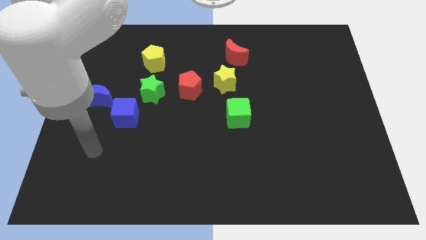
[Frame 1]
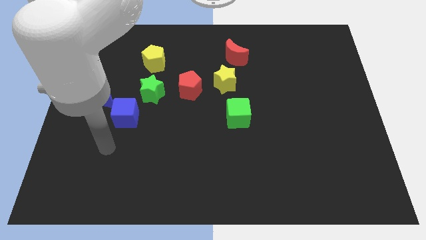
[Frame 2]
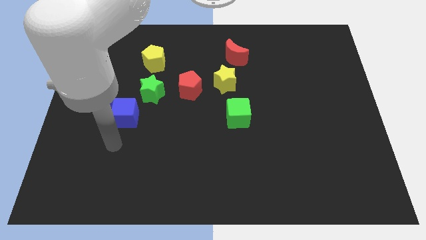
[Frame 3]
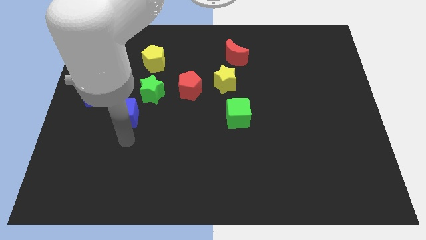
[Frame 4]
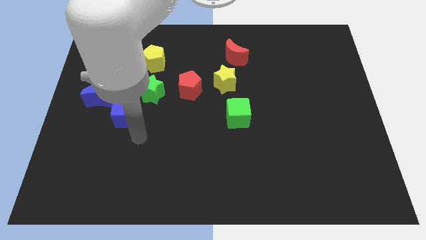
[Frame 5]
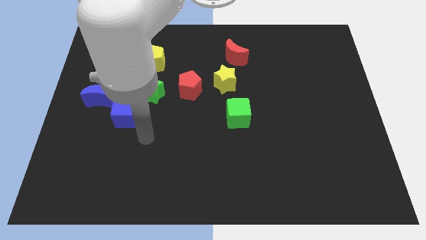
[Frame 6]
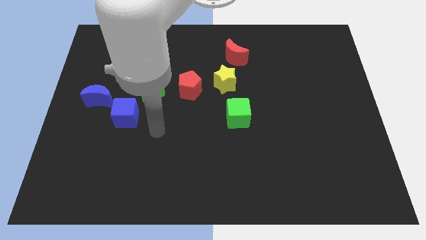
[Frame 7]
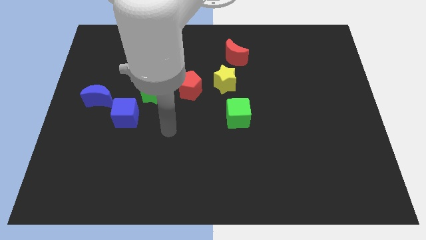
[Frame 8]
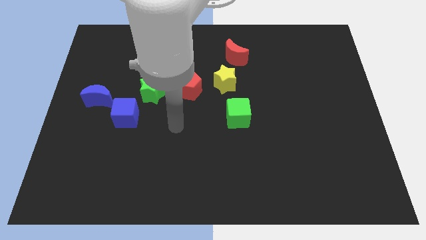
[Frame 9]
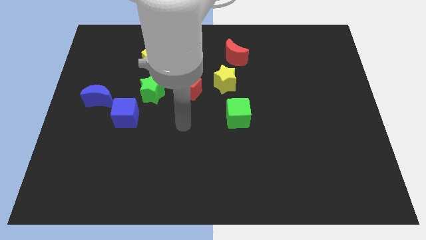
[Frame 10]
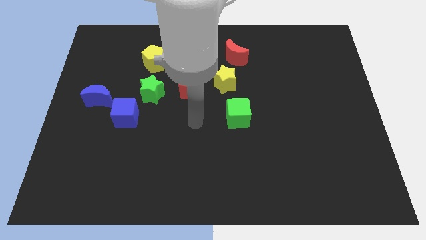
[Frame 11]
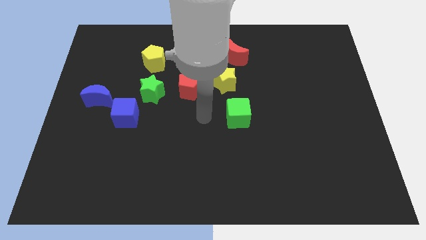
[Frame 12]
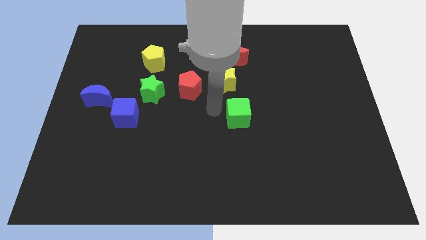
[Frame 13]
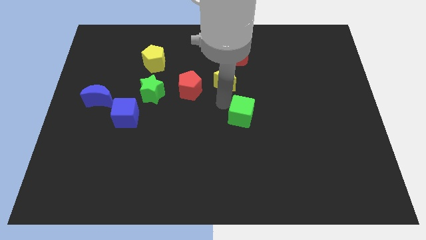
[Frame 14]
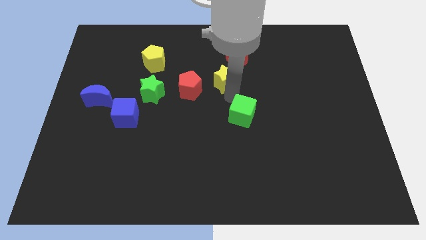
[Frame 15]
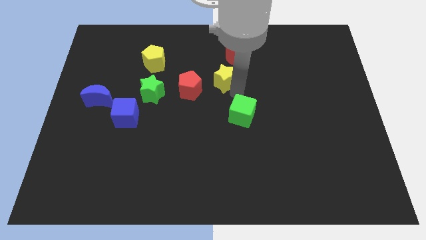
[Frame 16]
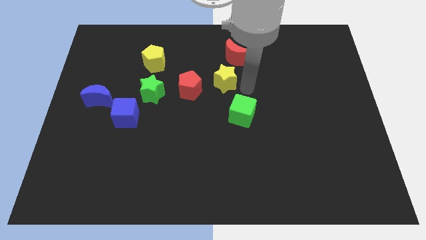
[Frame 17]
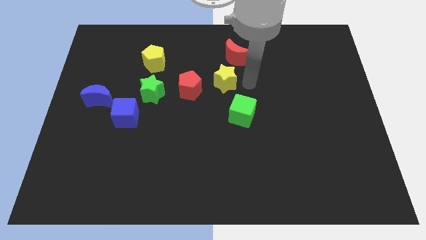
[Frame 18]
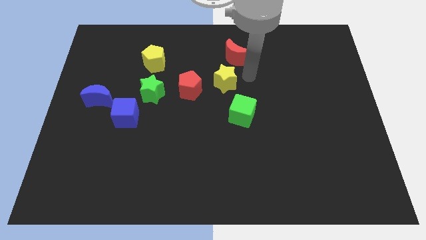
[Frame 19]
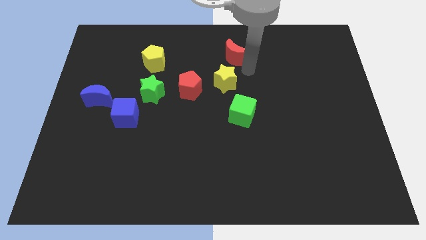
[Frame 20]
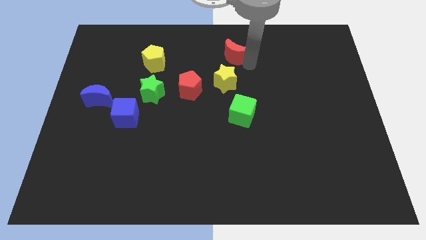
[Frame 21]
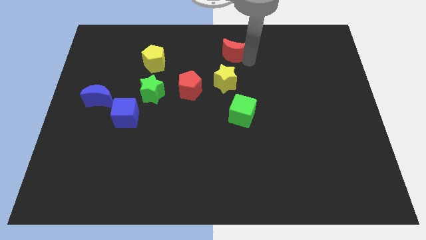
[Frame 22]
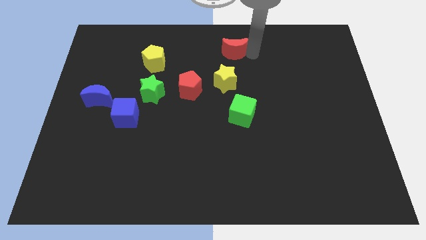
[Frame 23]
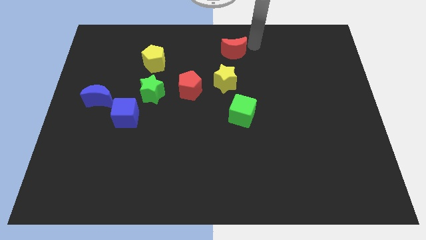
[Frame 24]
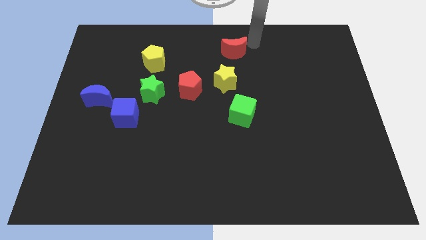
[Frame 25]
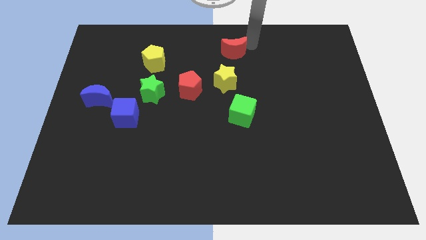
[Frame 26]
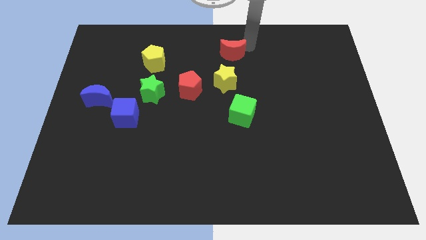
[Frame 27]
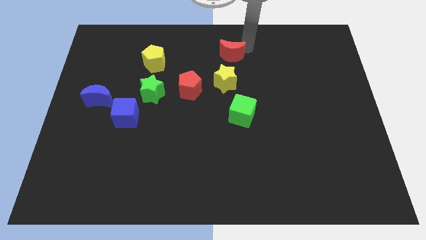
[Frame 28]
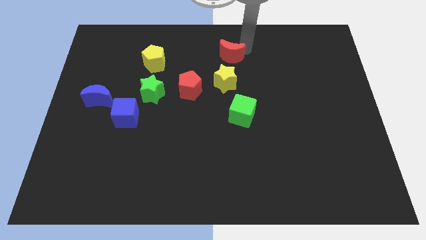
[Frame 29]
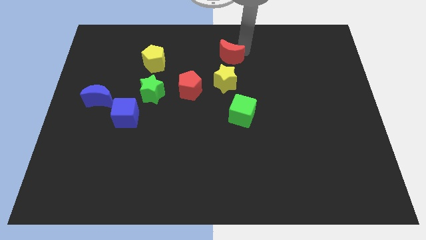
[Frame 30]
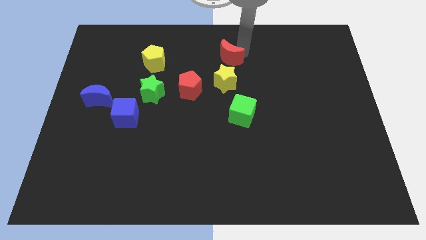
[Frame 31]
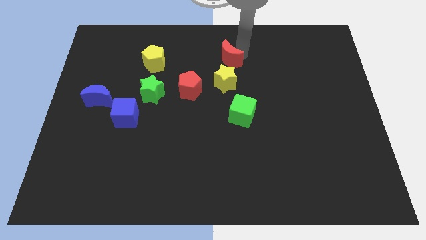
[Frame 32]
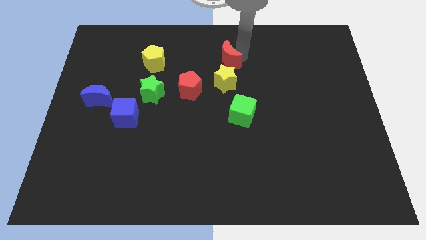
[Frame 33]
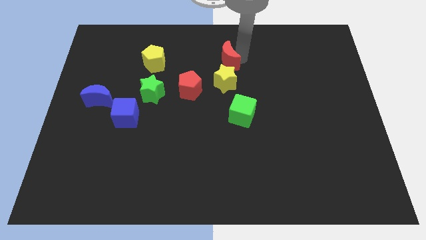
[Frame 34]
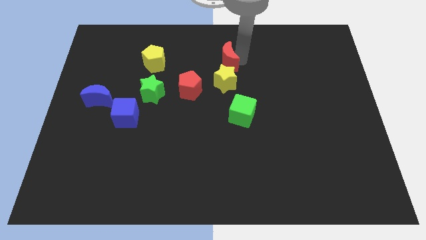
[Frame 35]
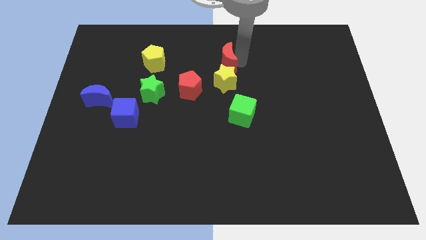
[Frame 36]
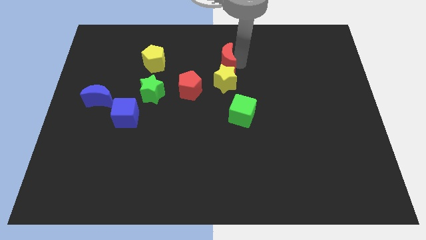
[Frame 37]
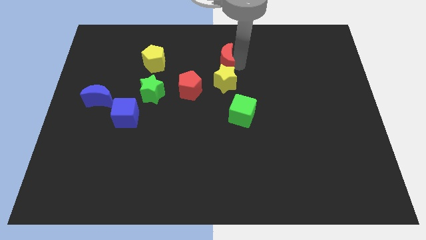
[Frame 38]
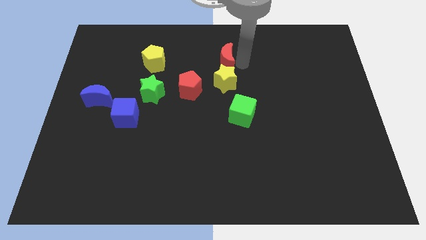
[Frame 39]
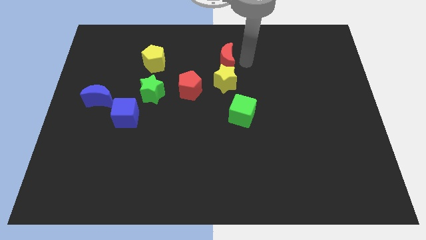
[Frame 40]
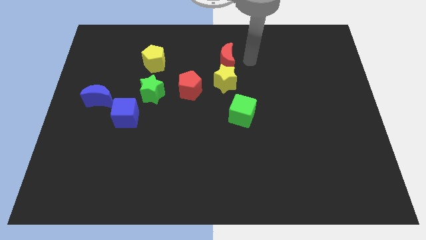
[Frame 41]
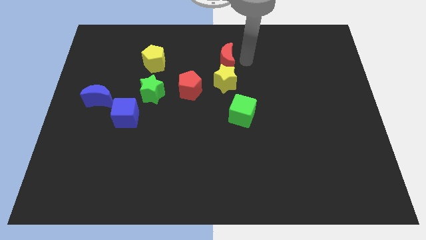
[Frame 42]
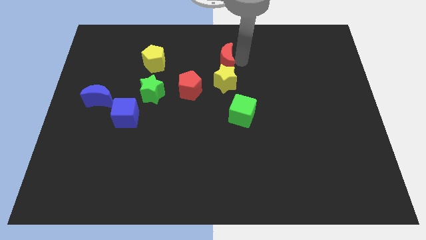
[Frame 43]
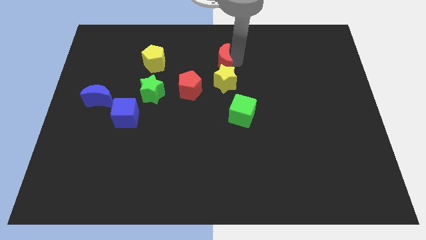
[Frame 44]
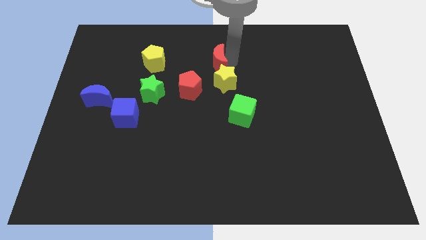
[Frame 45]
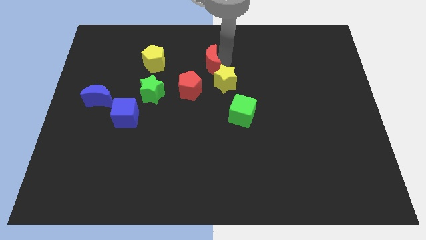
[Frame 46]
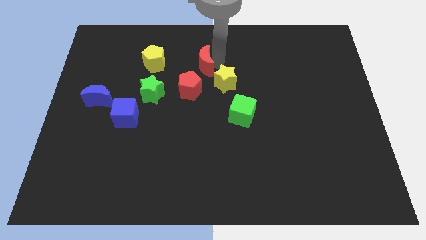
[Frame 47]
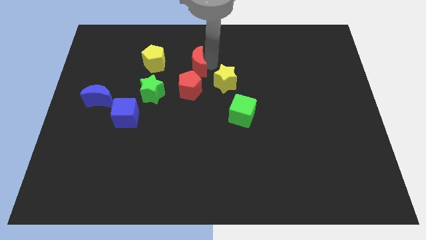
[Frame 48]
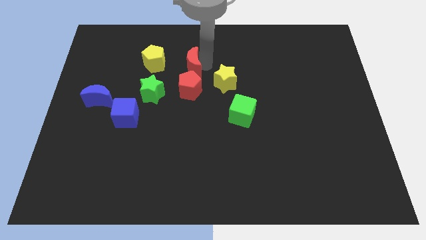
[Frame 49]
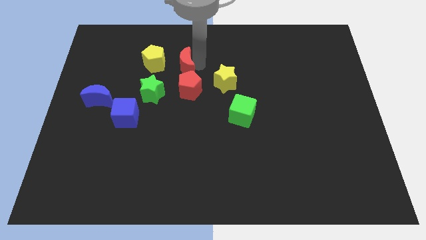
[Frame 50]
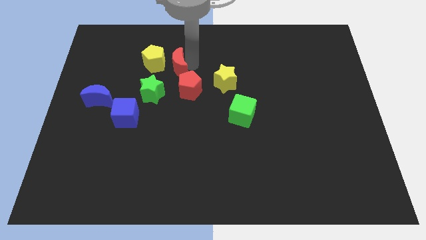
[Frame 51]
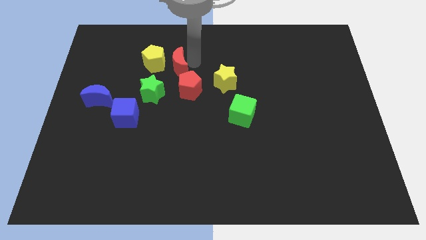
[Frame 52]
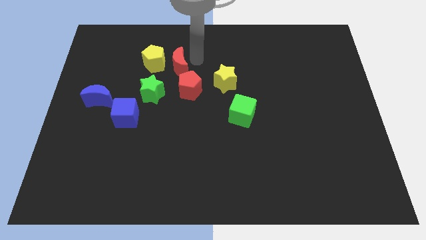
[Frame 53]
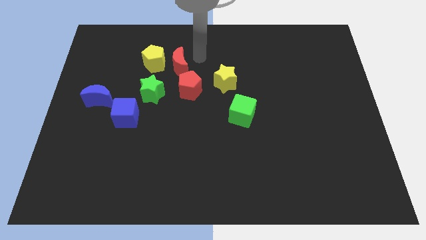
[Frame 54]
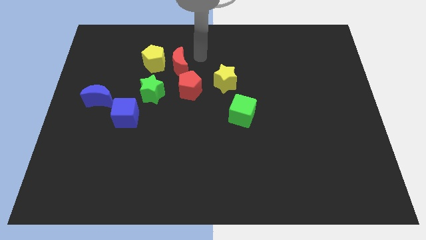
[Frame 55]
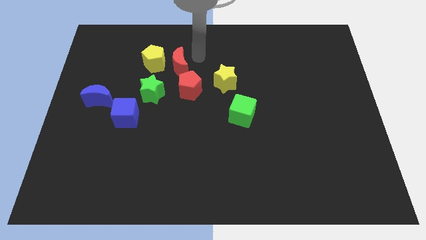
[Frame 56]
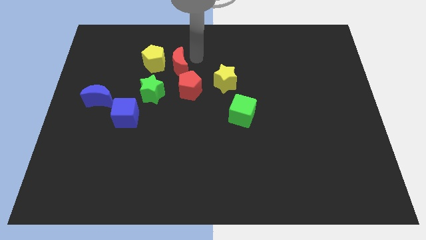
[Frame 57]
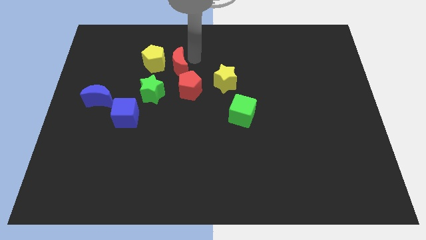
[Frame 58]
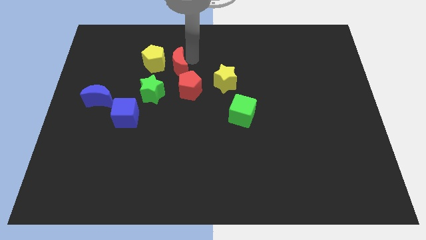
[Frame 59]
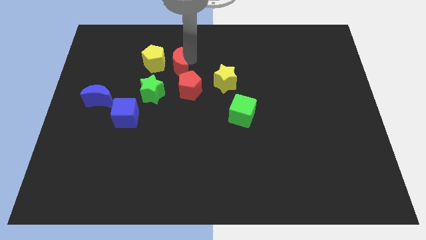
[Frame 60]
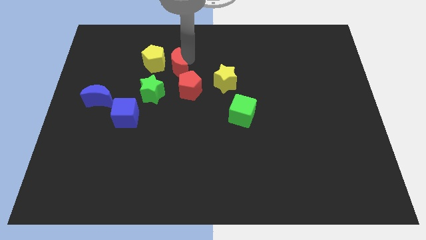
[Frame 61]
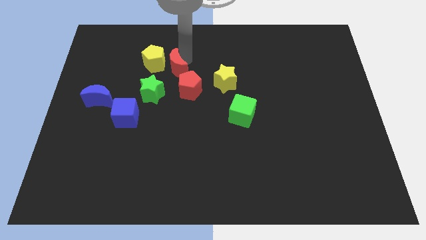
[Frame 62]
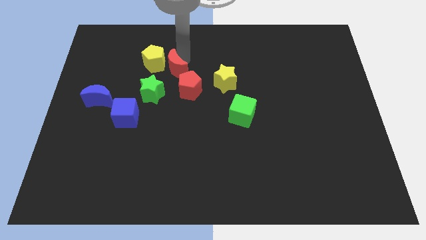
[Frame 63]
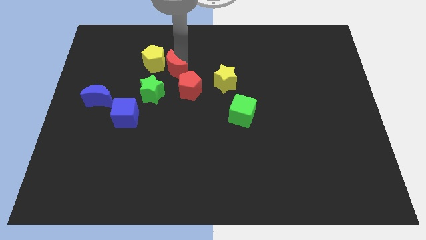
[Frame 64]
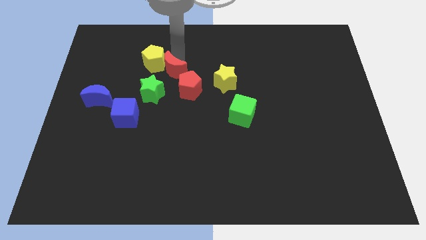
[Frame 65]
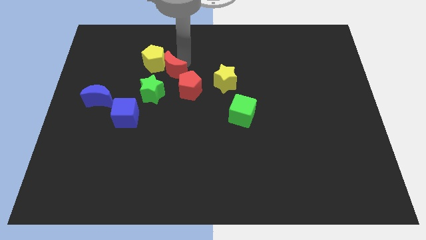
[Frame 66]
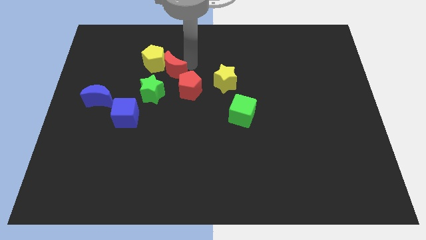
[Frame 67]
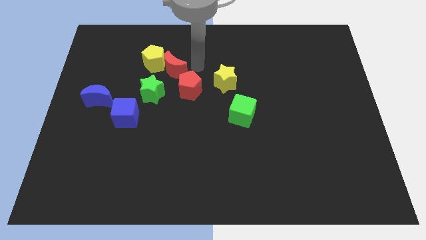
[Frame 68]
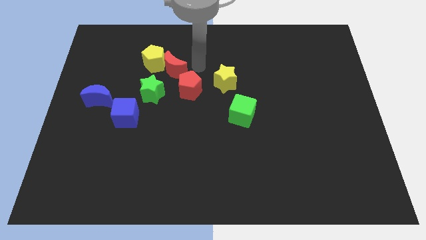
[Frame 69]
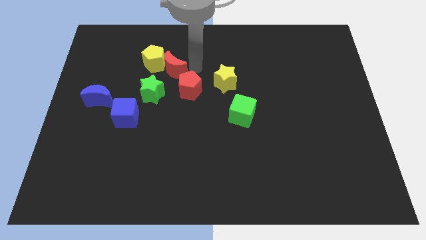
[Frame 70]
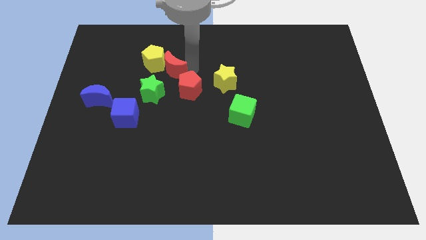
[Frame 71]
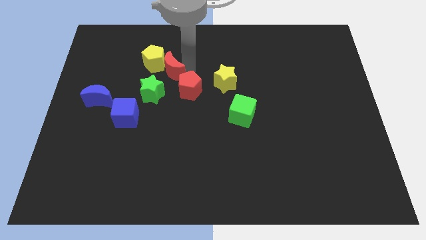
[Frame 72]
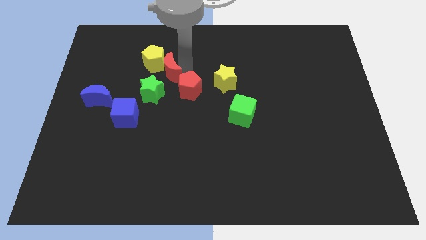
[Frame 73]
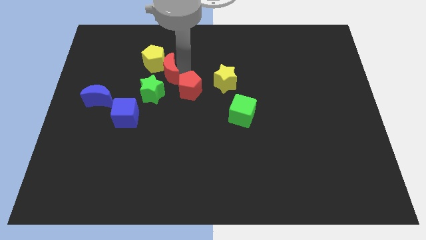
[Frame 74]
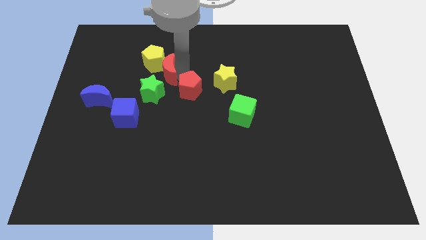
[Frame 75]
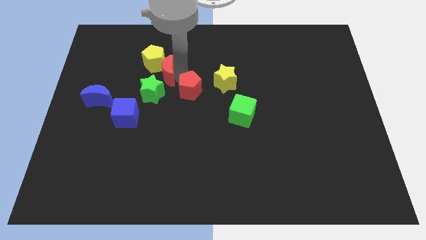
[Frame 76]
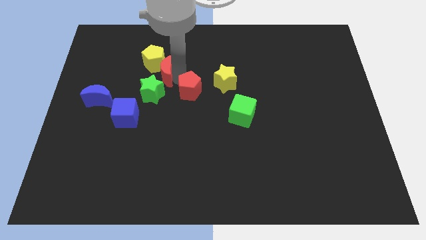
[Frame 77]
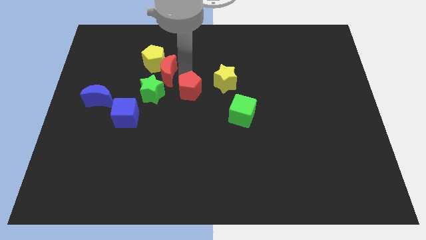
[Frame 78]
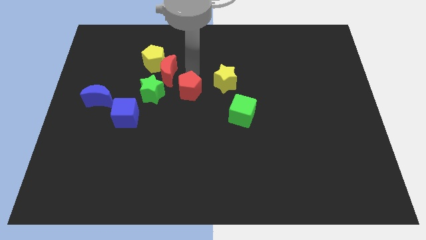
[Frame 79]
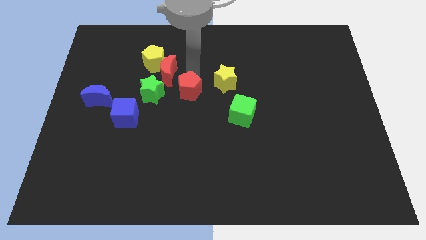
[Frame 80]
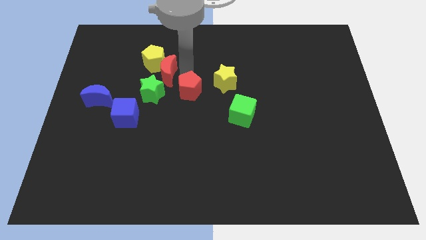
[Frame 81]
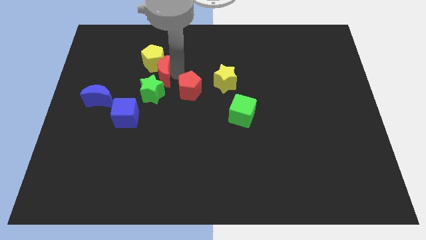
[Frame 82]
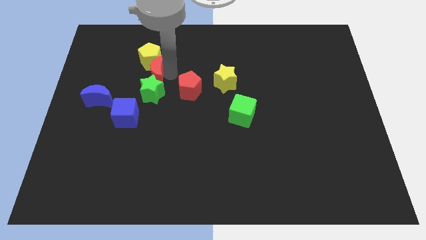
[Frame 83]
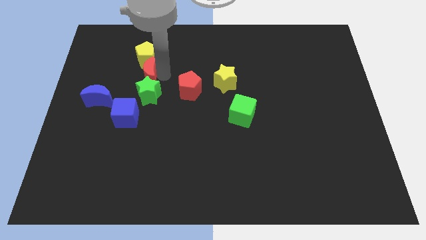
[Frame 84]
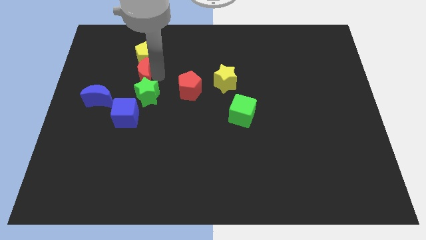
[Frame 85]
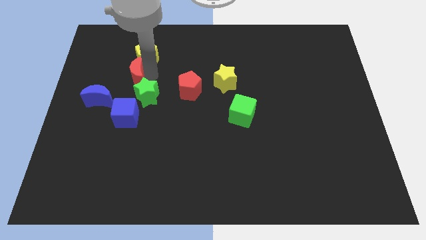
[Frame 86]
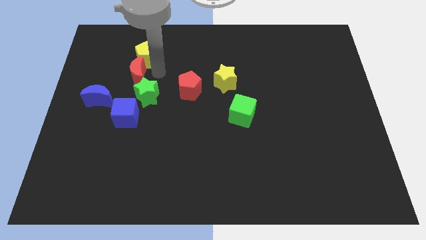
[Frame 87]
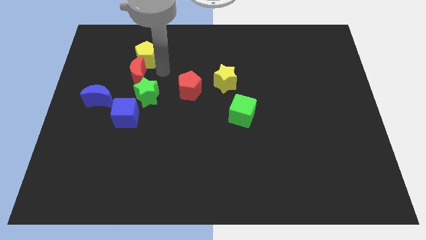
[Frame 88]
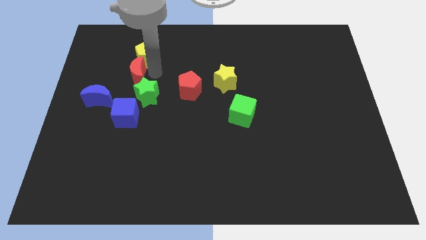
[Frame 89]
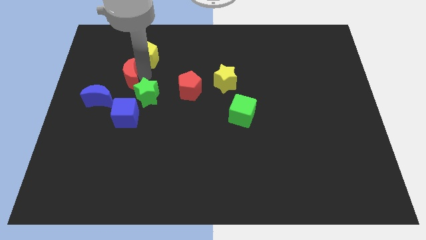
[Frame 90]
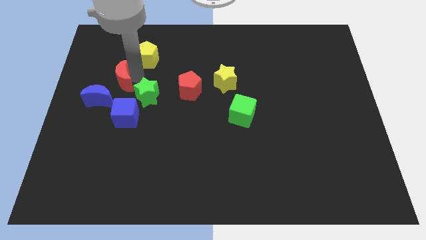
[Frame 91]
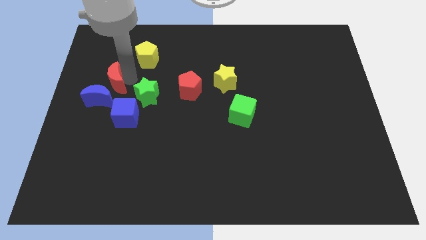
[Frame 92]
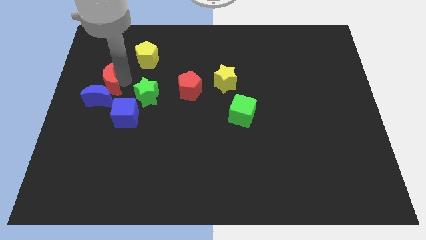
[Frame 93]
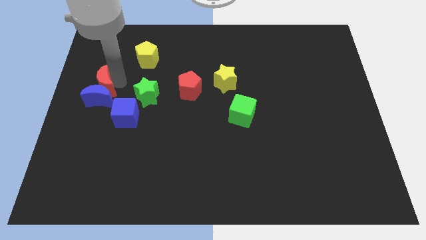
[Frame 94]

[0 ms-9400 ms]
slide the red moon to the left side of the board
